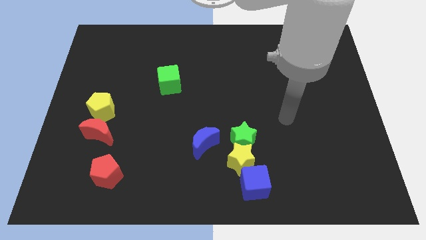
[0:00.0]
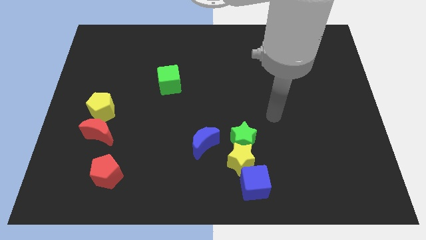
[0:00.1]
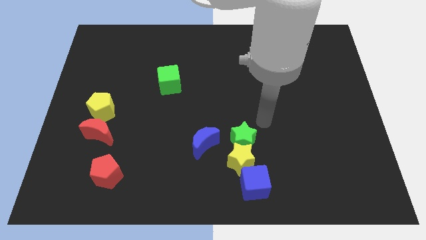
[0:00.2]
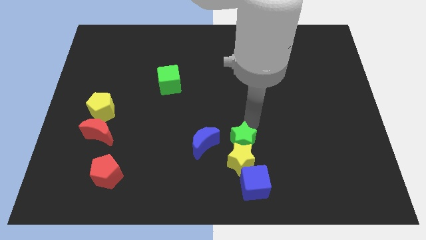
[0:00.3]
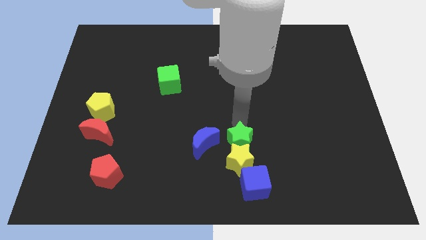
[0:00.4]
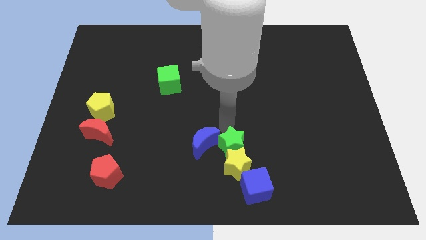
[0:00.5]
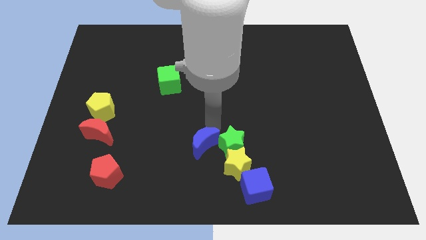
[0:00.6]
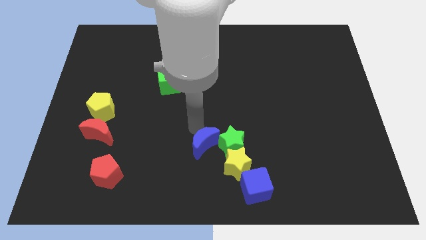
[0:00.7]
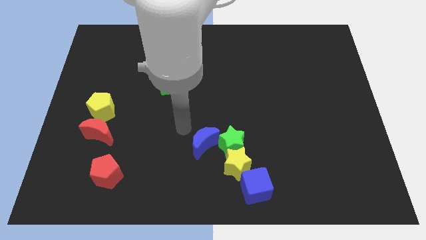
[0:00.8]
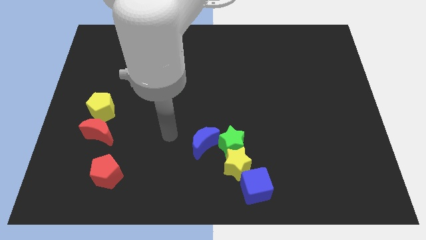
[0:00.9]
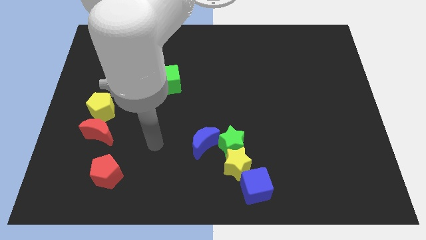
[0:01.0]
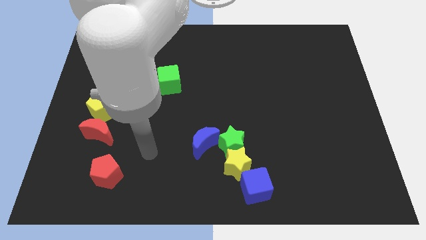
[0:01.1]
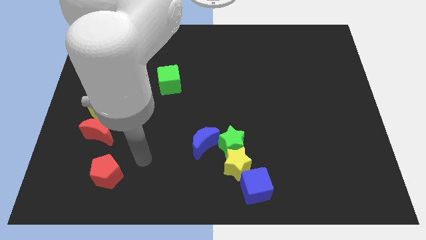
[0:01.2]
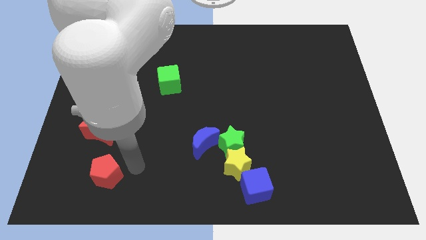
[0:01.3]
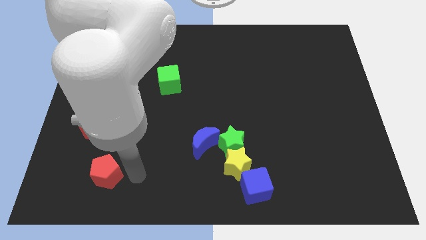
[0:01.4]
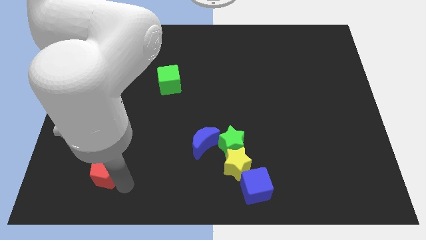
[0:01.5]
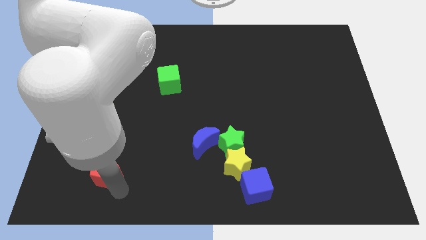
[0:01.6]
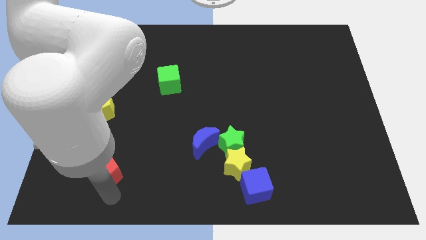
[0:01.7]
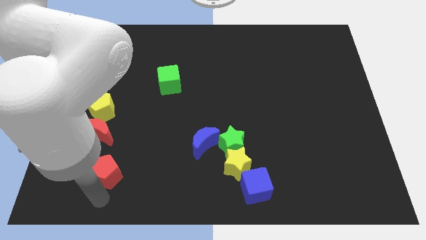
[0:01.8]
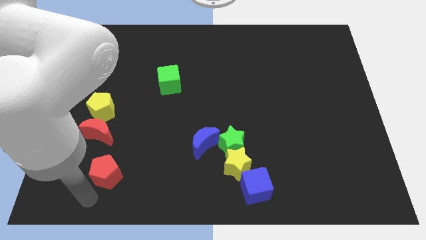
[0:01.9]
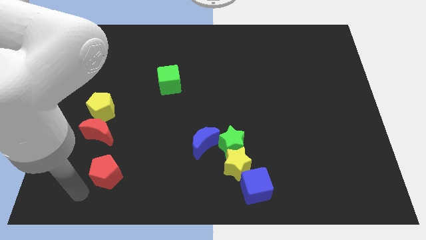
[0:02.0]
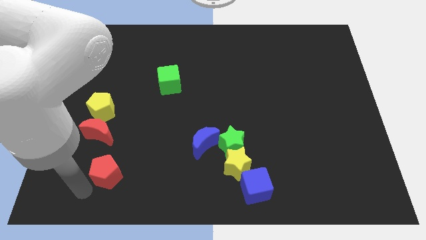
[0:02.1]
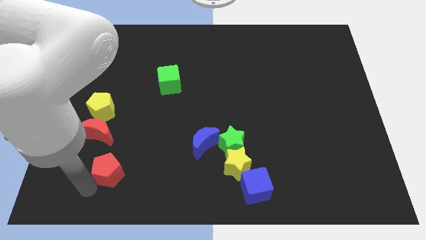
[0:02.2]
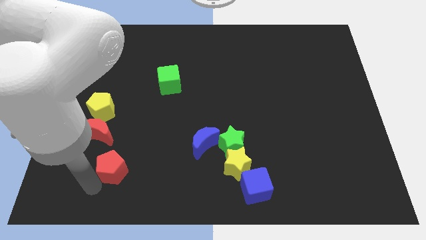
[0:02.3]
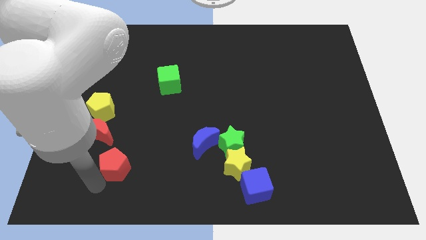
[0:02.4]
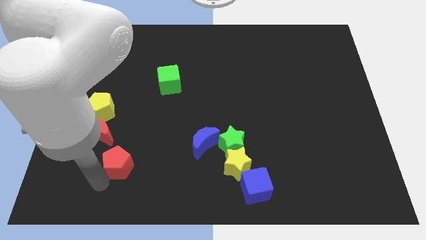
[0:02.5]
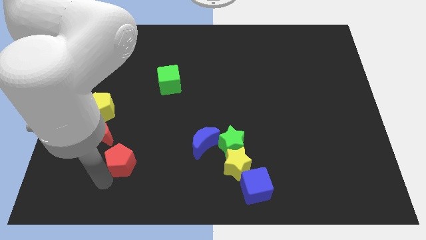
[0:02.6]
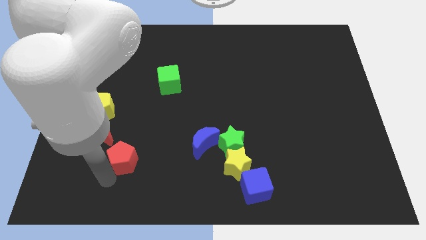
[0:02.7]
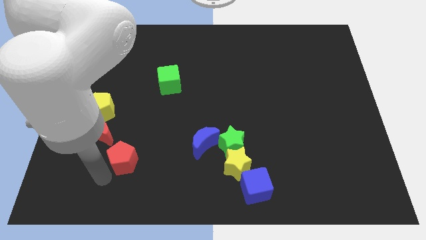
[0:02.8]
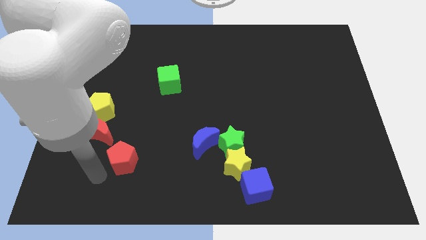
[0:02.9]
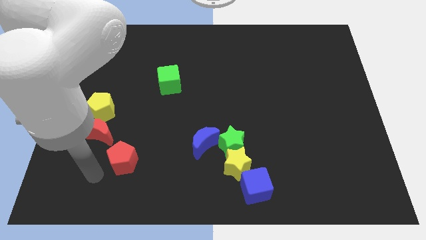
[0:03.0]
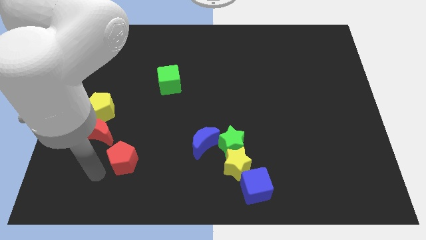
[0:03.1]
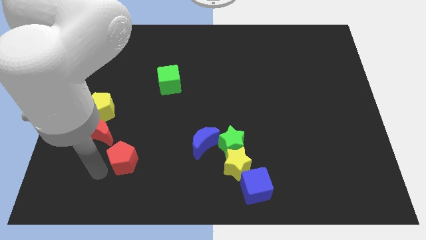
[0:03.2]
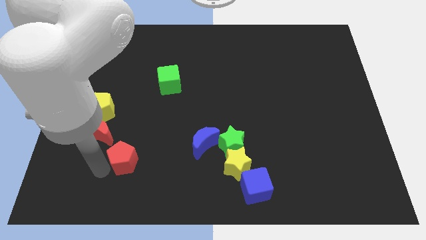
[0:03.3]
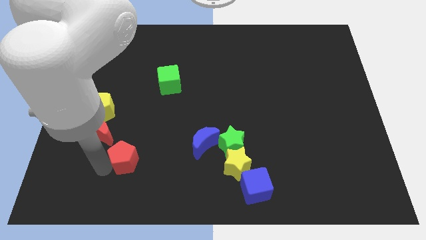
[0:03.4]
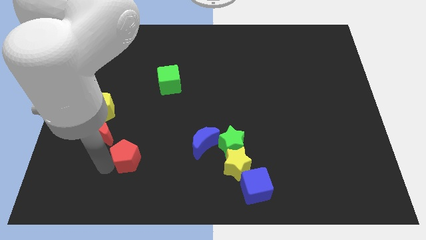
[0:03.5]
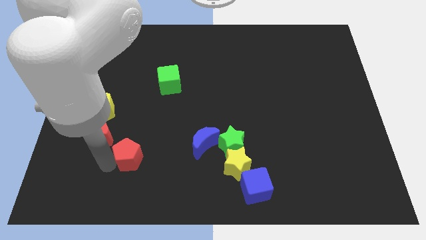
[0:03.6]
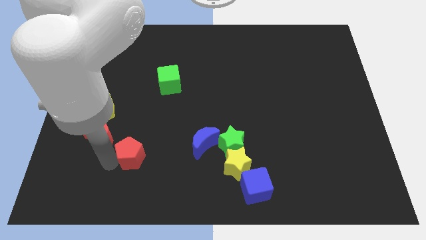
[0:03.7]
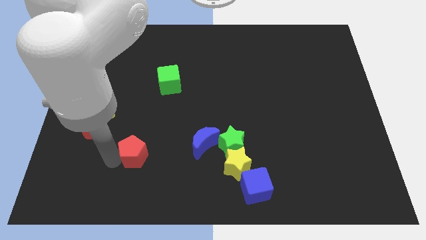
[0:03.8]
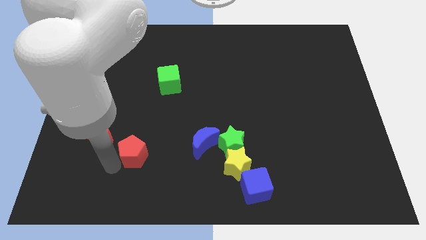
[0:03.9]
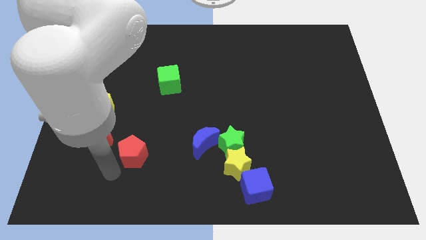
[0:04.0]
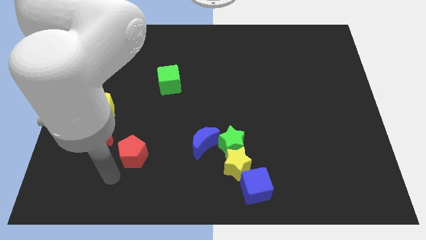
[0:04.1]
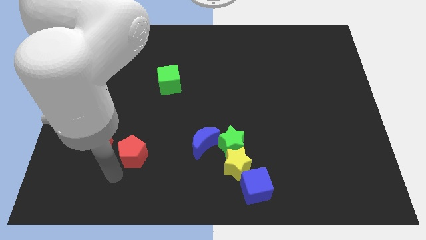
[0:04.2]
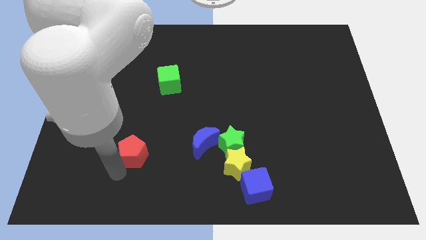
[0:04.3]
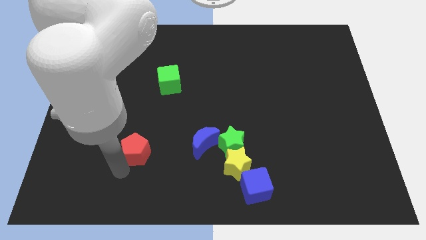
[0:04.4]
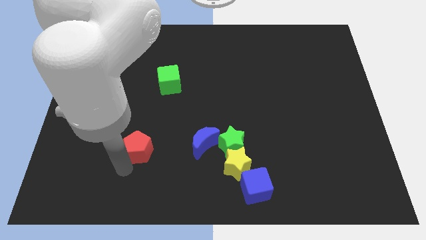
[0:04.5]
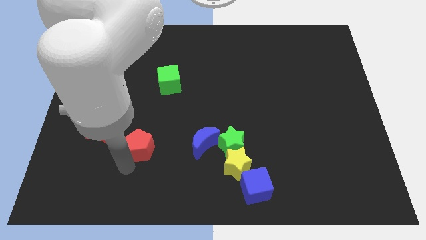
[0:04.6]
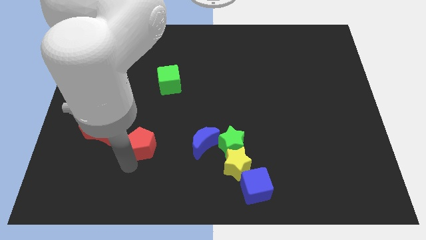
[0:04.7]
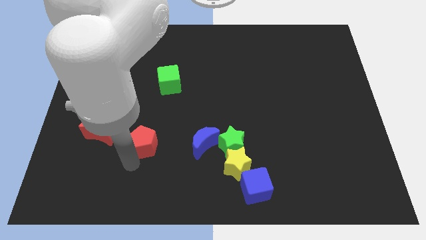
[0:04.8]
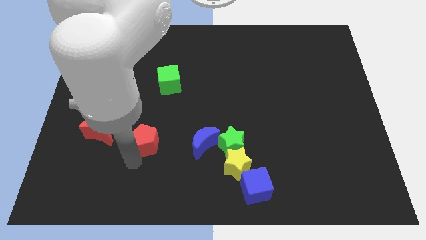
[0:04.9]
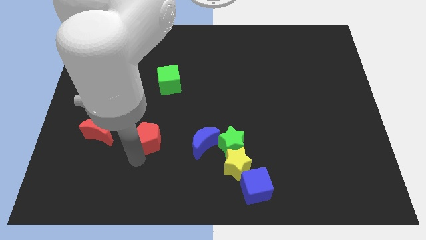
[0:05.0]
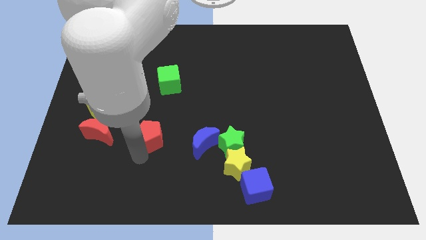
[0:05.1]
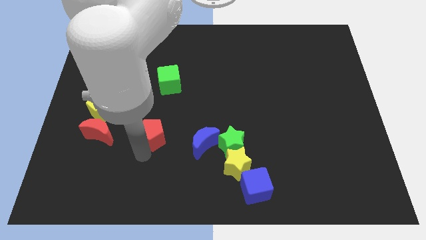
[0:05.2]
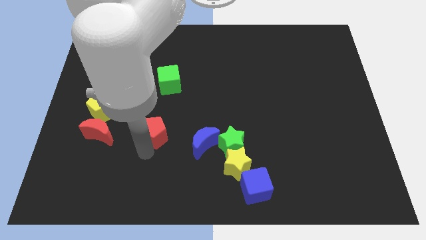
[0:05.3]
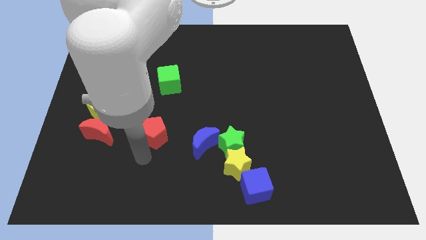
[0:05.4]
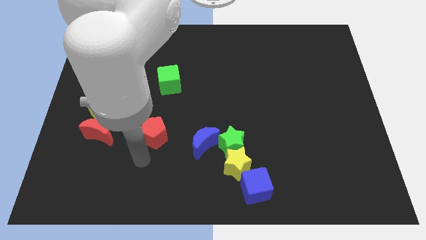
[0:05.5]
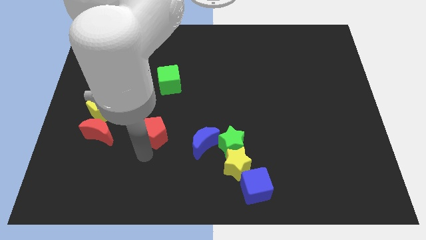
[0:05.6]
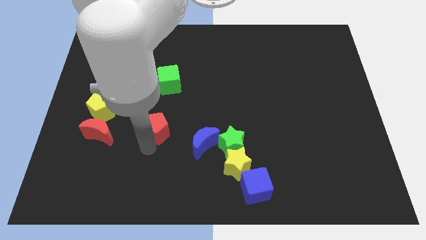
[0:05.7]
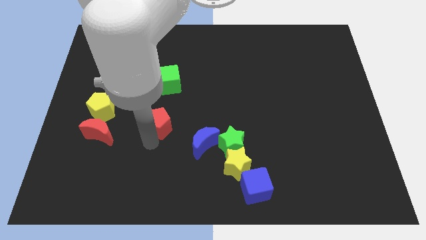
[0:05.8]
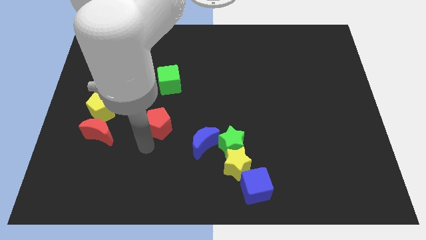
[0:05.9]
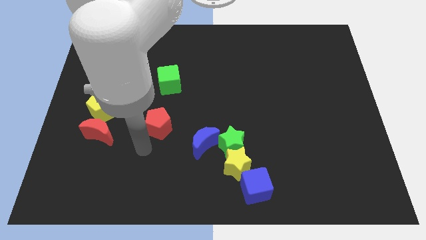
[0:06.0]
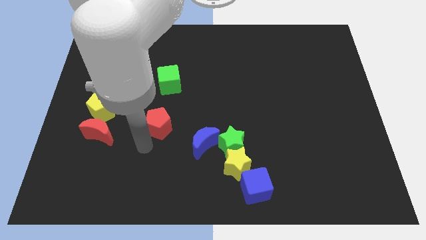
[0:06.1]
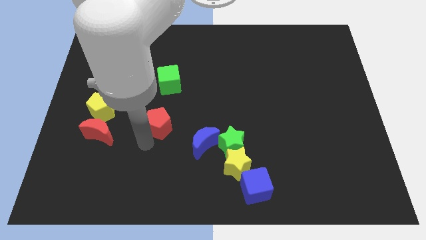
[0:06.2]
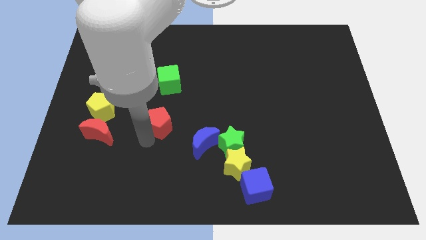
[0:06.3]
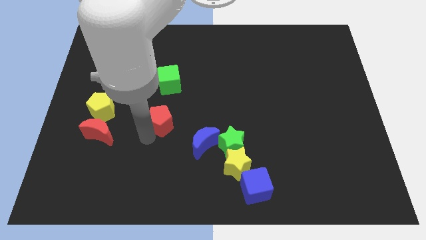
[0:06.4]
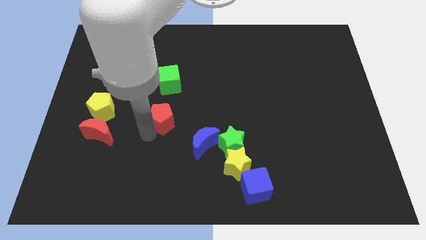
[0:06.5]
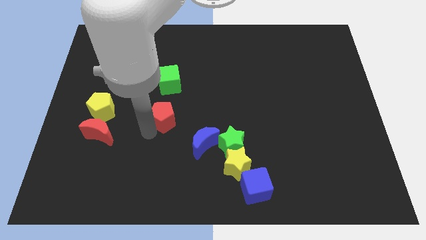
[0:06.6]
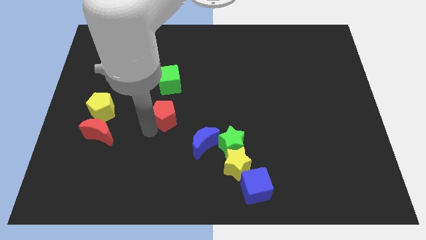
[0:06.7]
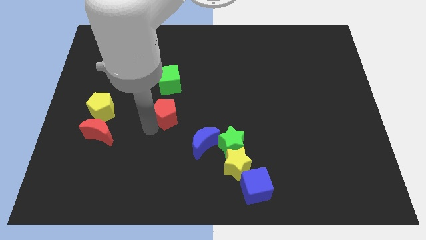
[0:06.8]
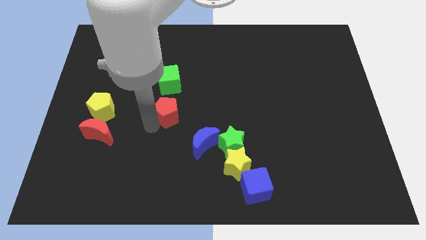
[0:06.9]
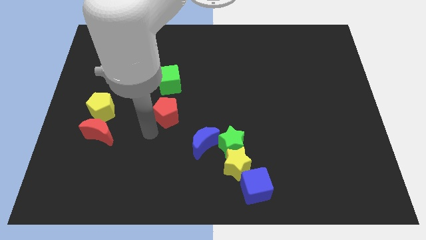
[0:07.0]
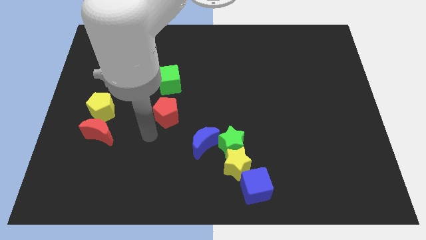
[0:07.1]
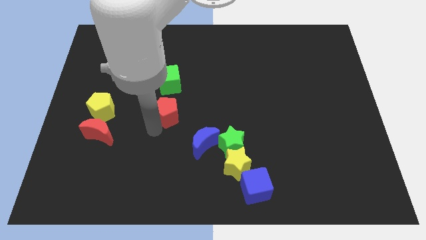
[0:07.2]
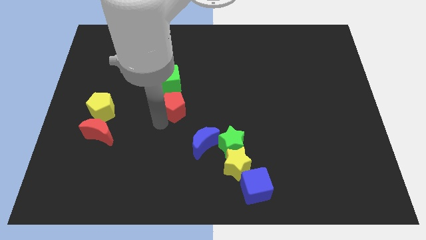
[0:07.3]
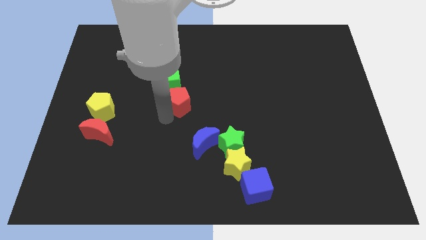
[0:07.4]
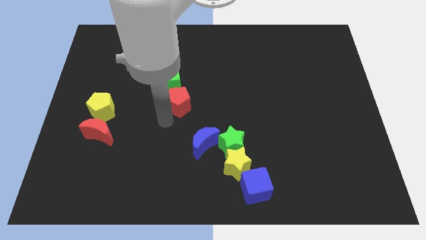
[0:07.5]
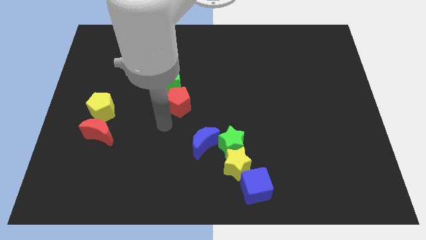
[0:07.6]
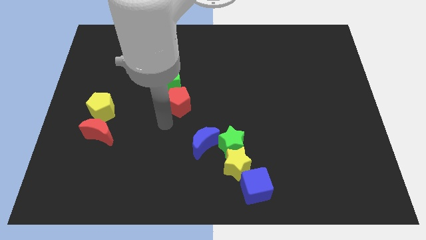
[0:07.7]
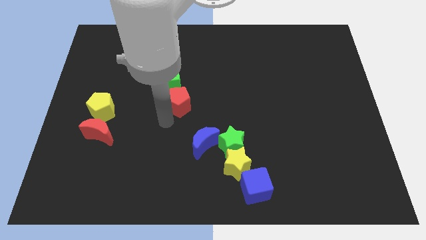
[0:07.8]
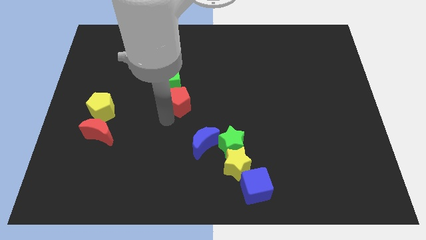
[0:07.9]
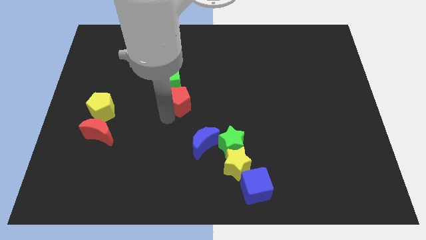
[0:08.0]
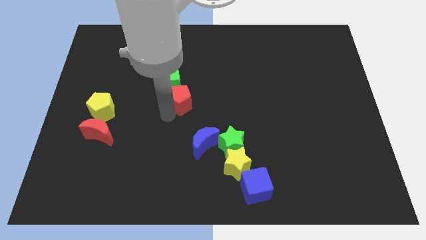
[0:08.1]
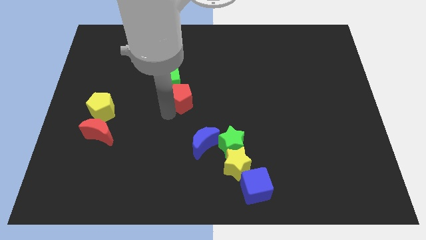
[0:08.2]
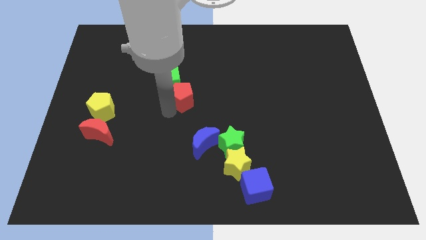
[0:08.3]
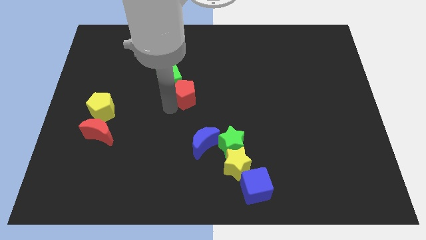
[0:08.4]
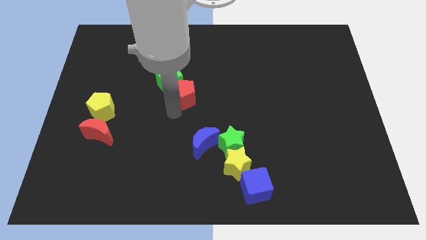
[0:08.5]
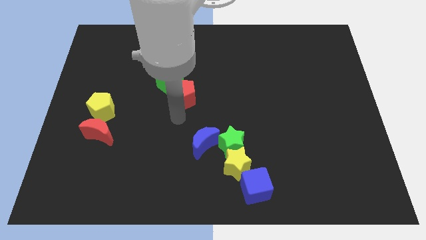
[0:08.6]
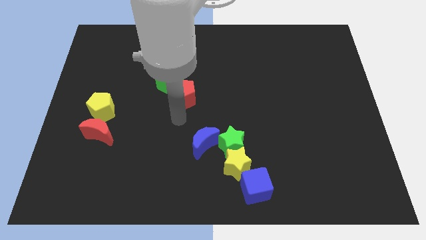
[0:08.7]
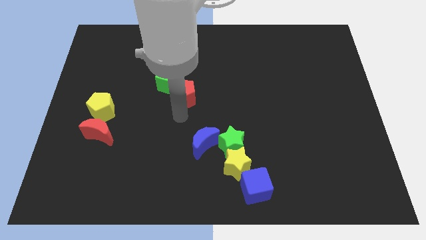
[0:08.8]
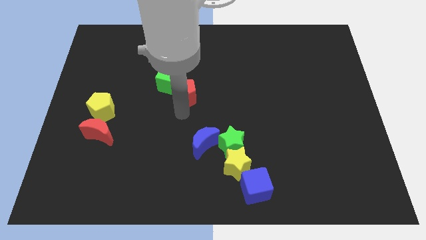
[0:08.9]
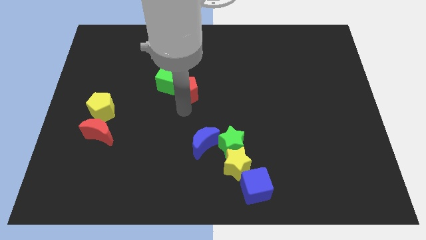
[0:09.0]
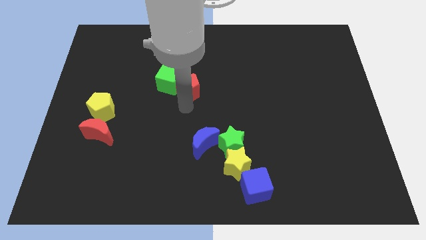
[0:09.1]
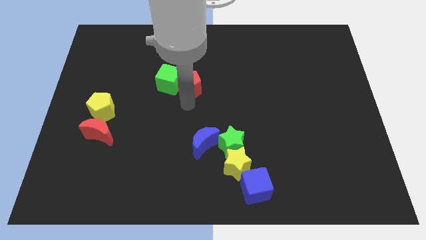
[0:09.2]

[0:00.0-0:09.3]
push the red pentagon to the top right of the green cube
